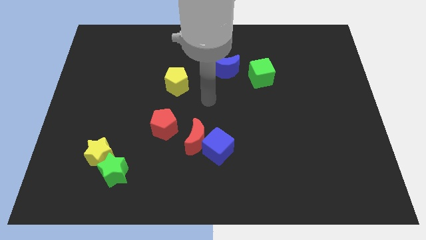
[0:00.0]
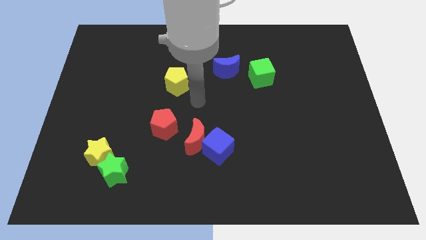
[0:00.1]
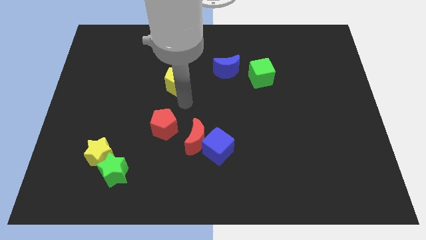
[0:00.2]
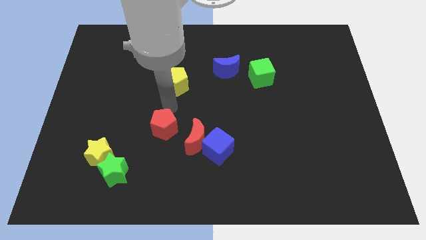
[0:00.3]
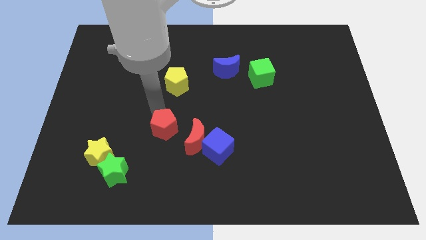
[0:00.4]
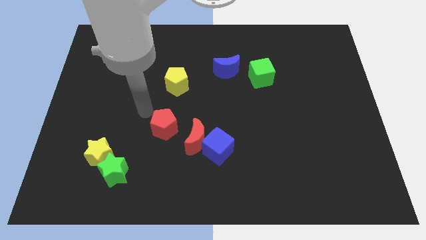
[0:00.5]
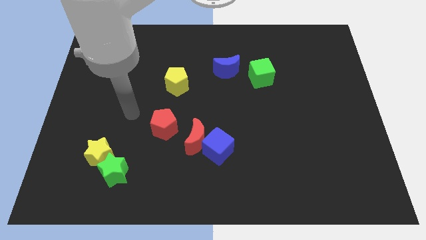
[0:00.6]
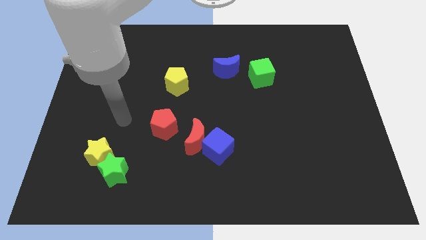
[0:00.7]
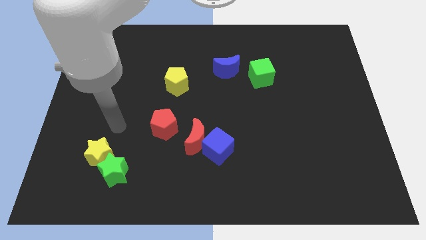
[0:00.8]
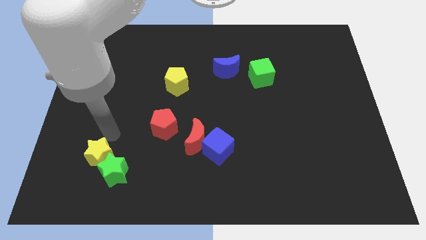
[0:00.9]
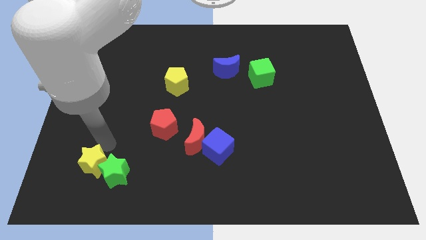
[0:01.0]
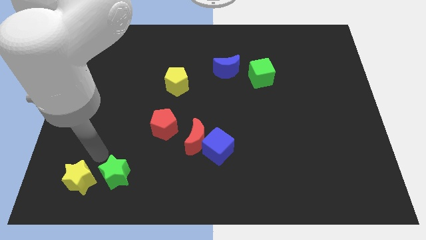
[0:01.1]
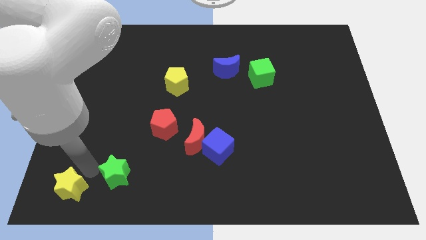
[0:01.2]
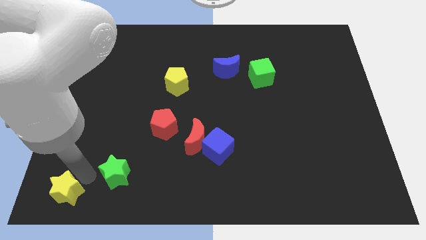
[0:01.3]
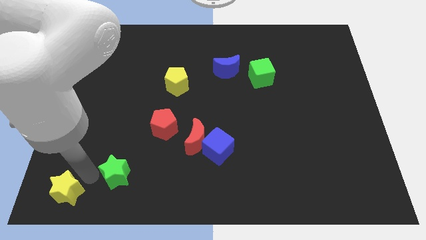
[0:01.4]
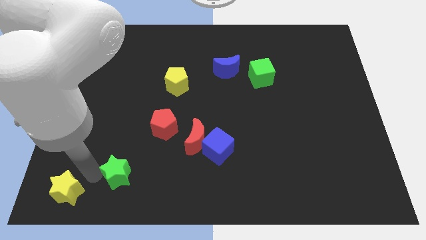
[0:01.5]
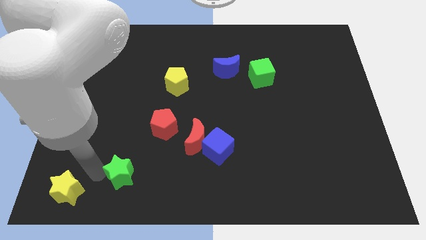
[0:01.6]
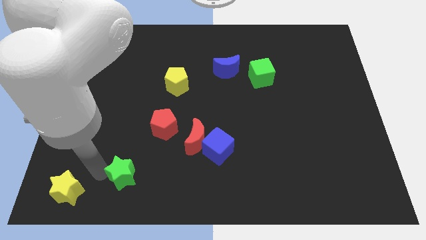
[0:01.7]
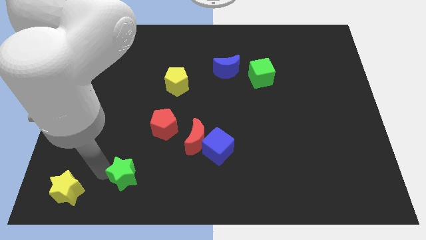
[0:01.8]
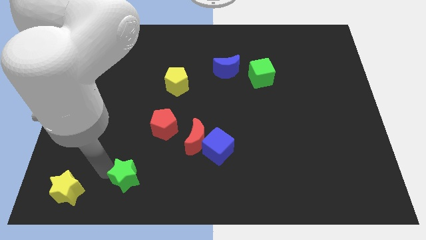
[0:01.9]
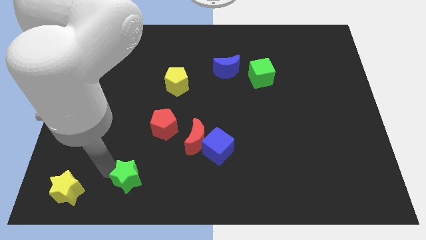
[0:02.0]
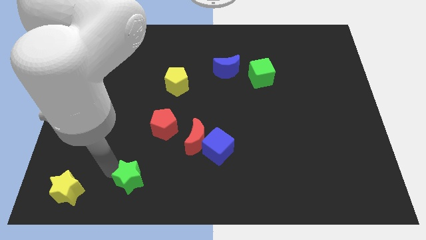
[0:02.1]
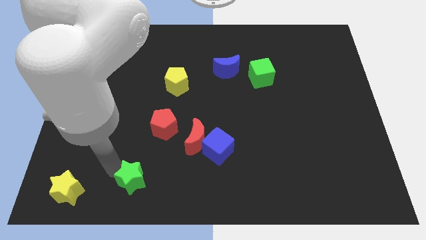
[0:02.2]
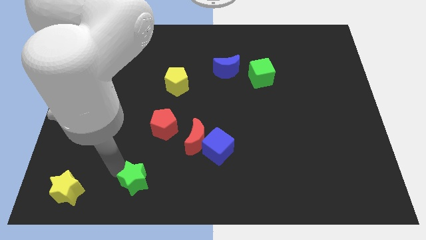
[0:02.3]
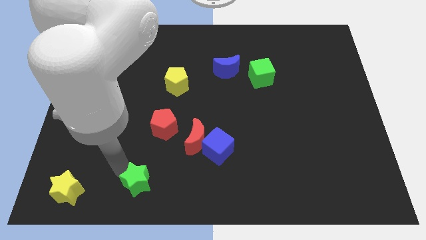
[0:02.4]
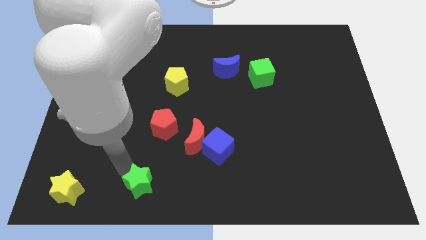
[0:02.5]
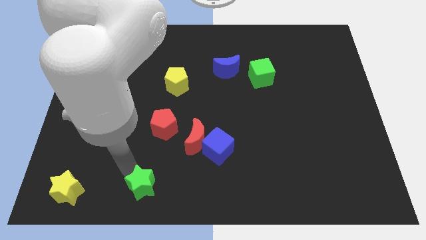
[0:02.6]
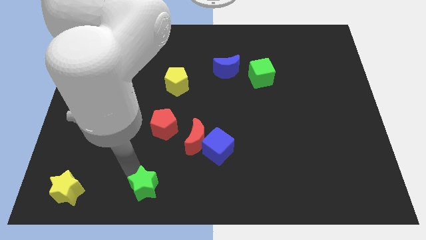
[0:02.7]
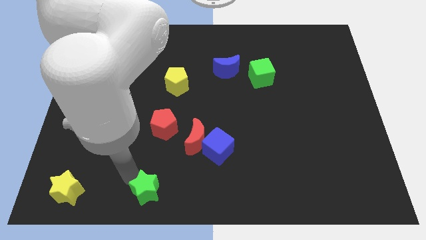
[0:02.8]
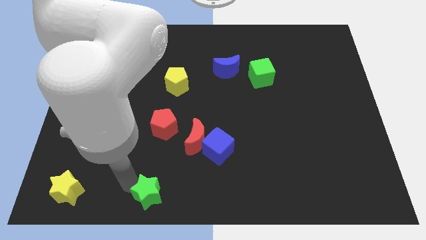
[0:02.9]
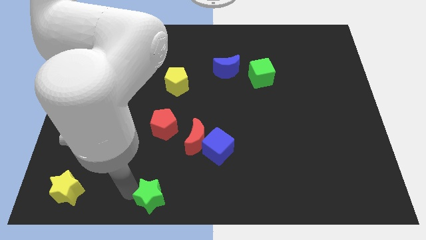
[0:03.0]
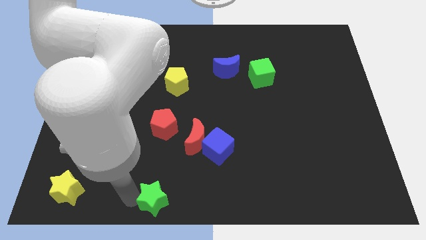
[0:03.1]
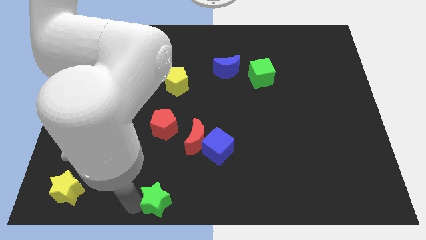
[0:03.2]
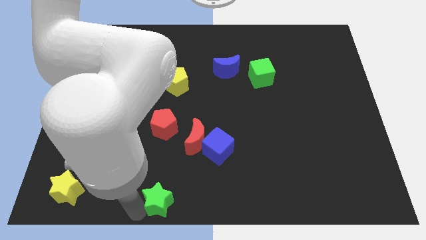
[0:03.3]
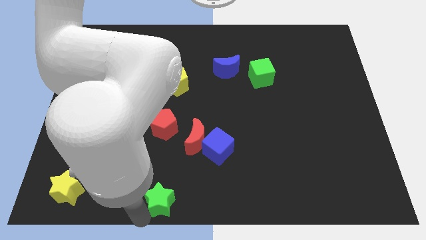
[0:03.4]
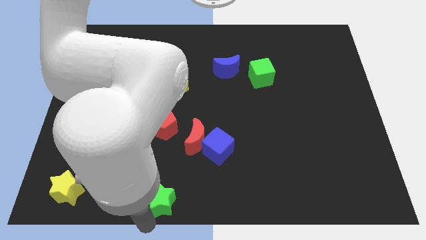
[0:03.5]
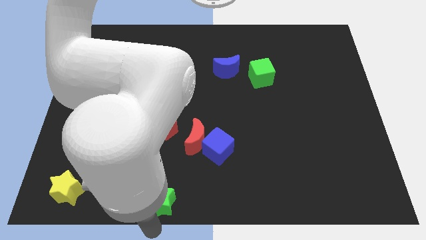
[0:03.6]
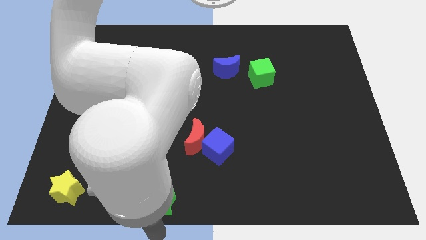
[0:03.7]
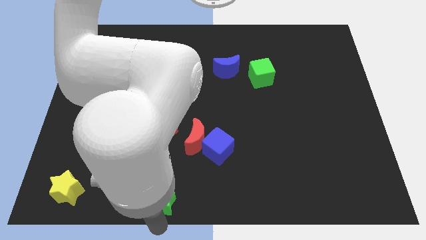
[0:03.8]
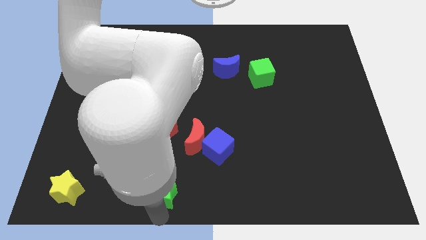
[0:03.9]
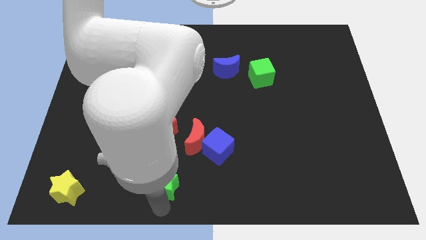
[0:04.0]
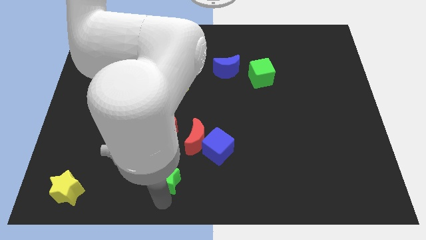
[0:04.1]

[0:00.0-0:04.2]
push the green star diagonally down and to the left of the blue cube

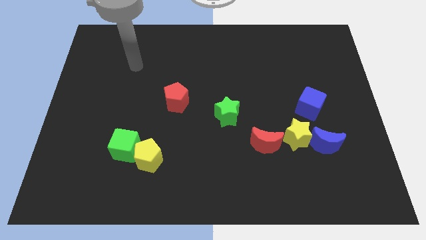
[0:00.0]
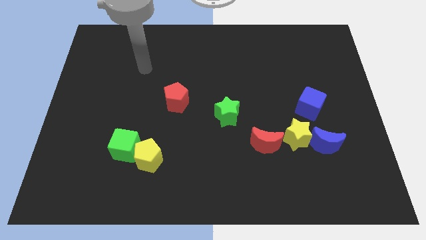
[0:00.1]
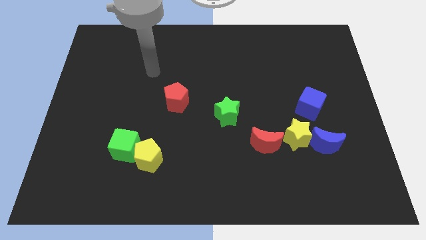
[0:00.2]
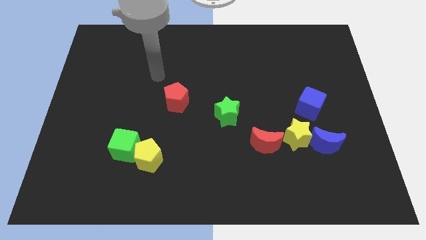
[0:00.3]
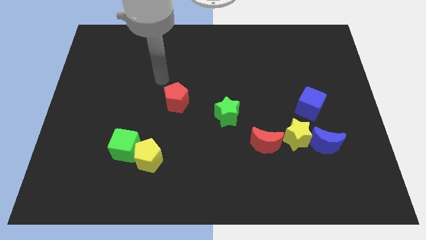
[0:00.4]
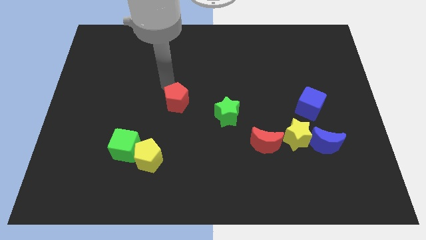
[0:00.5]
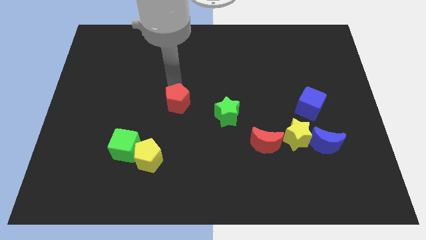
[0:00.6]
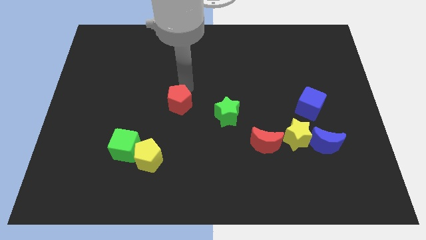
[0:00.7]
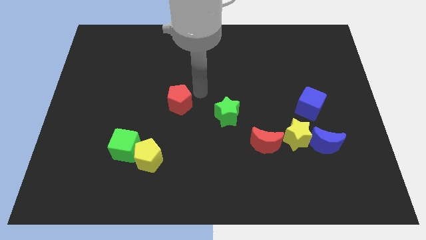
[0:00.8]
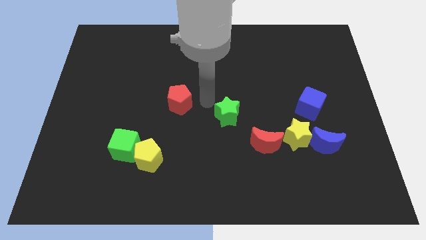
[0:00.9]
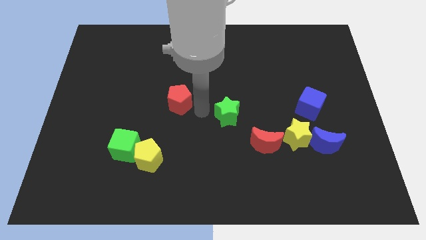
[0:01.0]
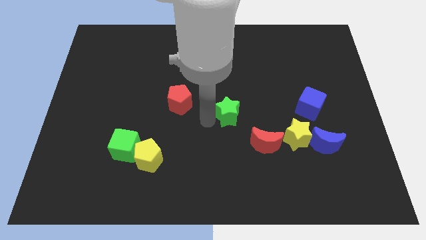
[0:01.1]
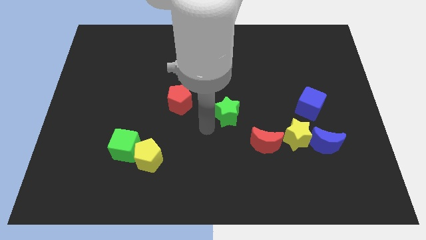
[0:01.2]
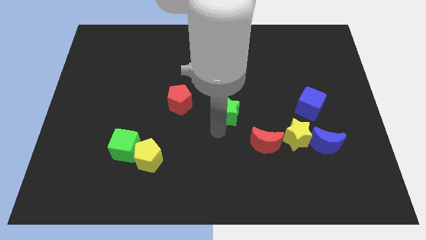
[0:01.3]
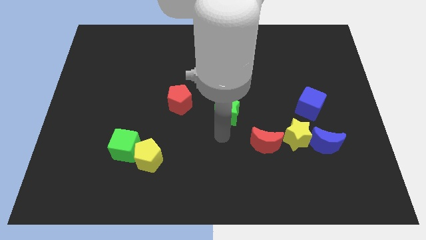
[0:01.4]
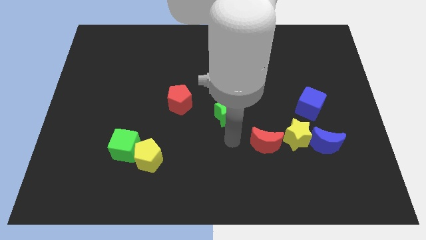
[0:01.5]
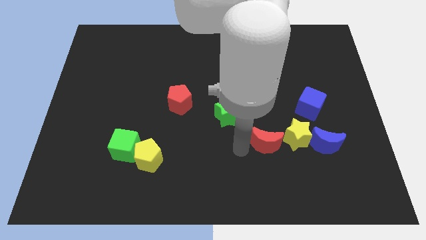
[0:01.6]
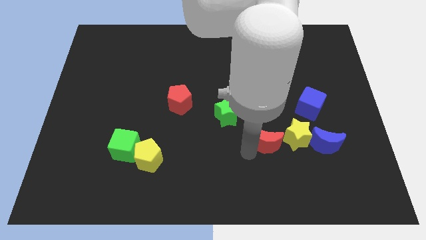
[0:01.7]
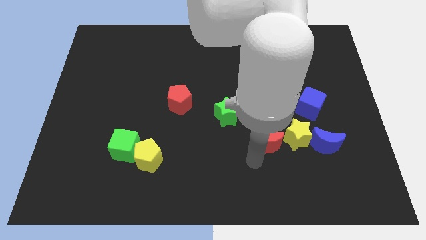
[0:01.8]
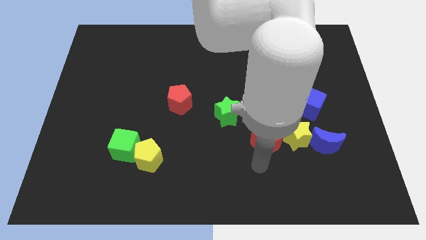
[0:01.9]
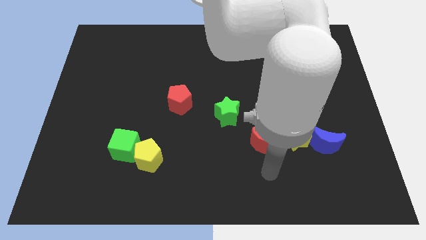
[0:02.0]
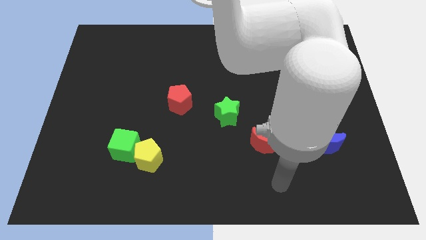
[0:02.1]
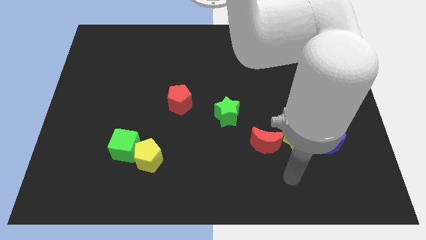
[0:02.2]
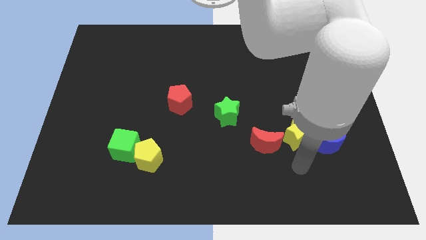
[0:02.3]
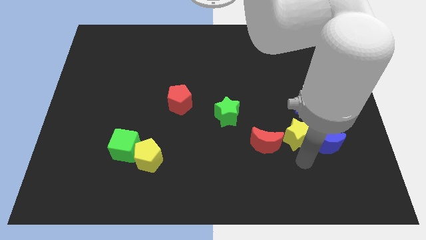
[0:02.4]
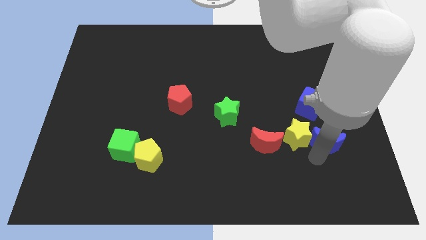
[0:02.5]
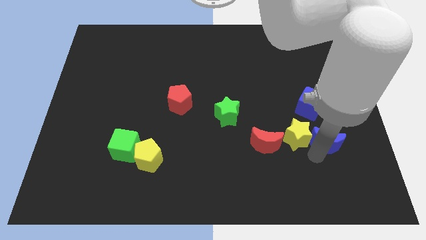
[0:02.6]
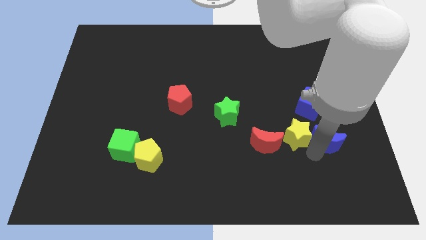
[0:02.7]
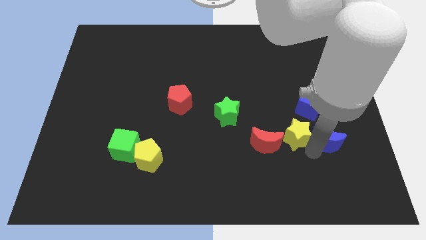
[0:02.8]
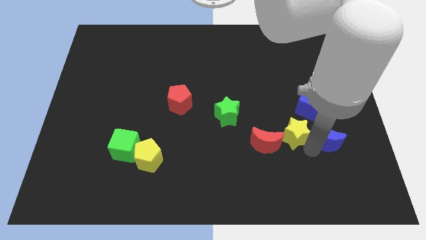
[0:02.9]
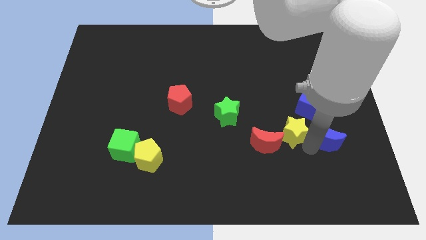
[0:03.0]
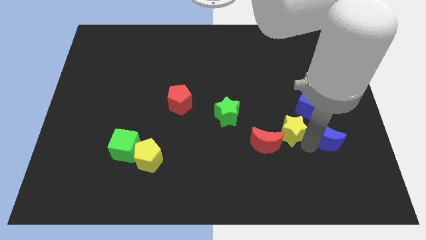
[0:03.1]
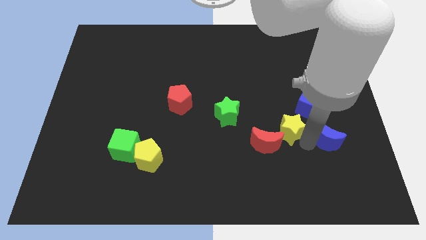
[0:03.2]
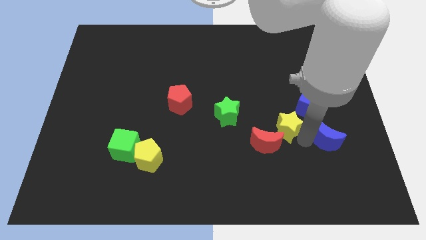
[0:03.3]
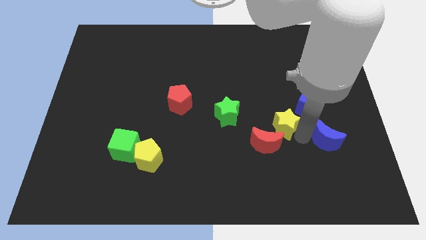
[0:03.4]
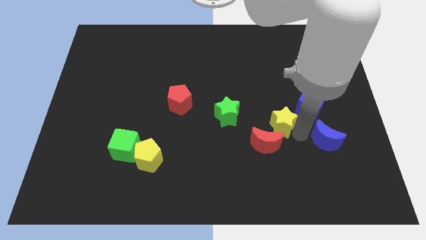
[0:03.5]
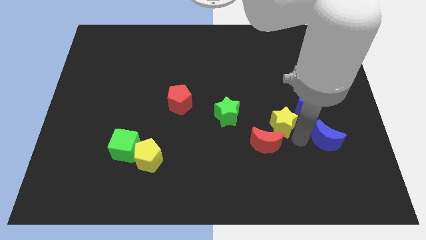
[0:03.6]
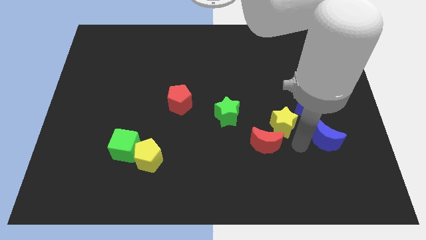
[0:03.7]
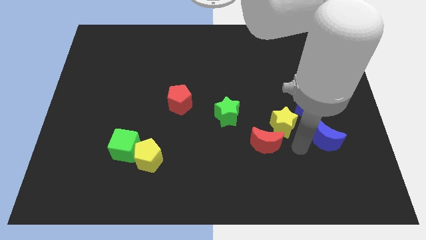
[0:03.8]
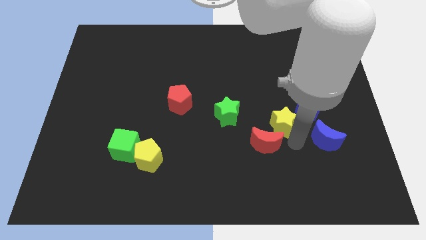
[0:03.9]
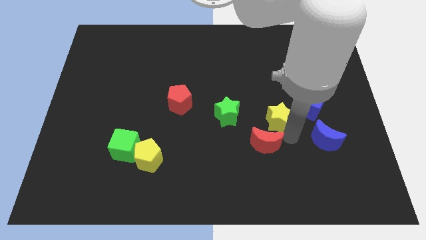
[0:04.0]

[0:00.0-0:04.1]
move the yellow star to the left side of the blue cube
